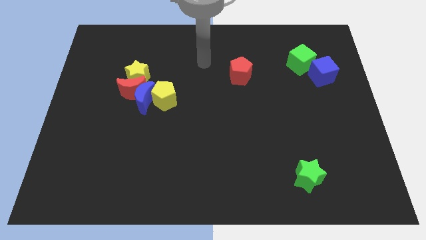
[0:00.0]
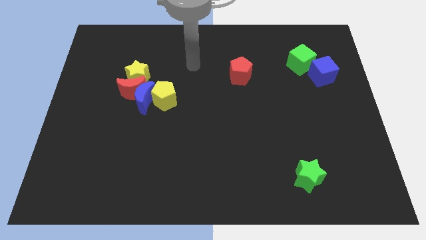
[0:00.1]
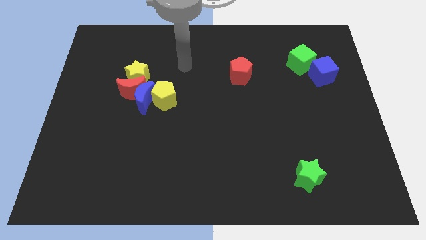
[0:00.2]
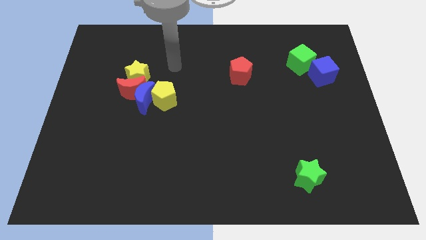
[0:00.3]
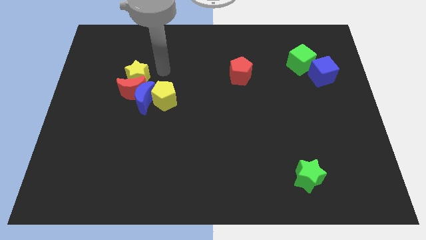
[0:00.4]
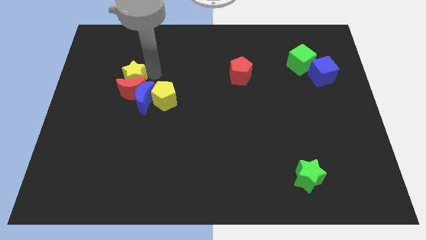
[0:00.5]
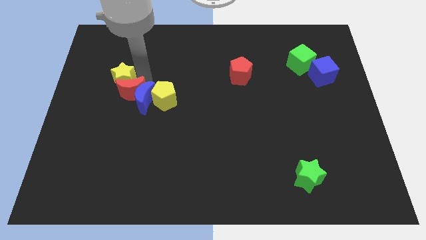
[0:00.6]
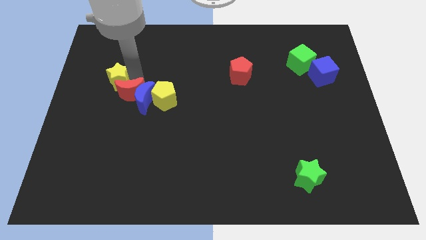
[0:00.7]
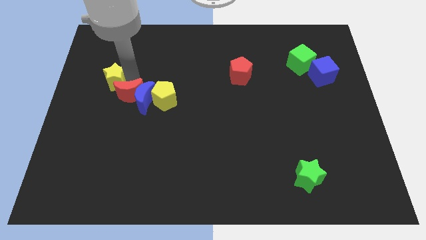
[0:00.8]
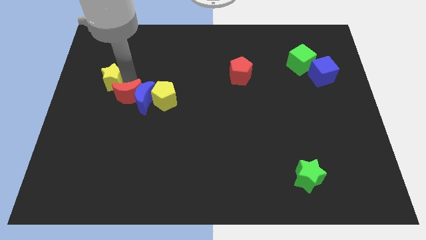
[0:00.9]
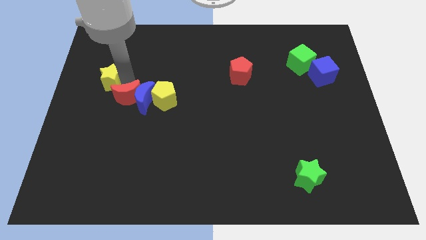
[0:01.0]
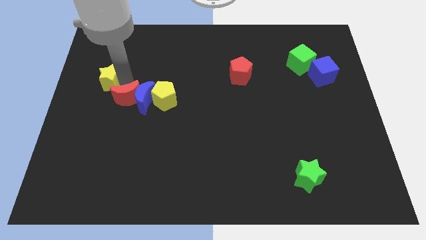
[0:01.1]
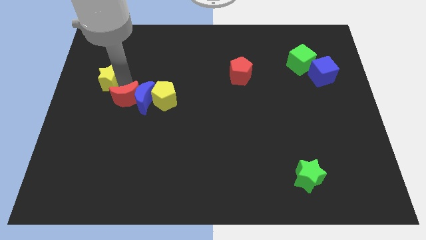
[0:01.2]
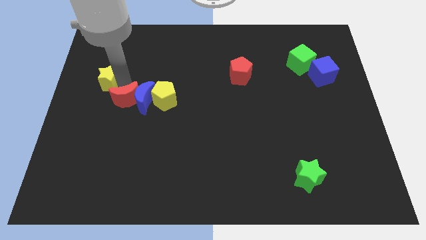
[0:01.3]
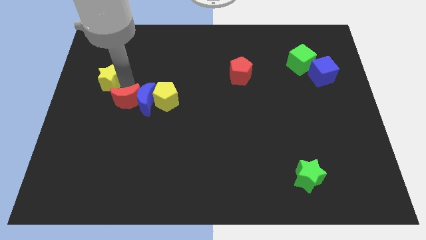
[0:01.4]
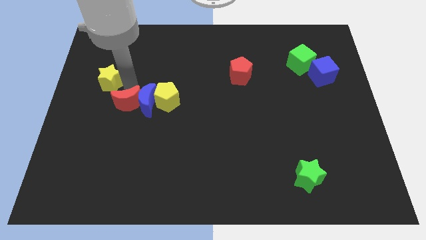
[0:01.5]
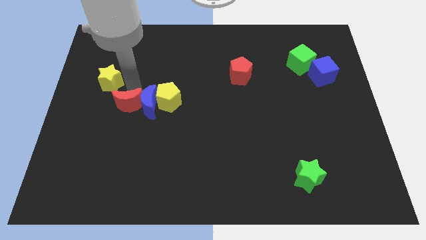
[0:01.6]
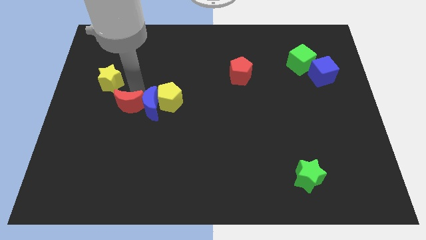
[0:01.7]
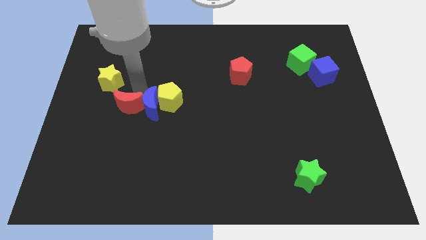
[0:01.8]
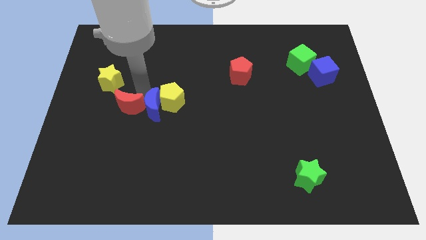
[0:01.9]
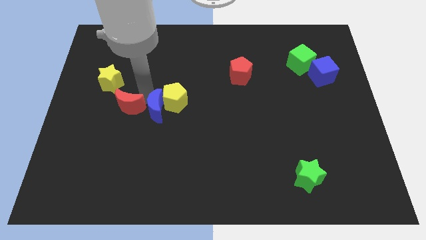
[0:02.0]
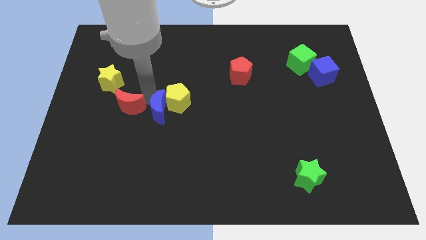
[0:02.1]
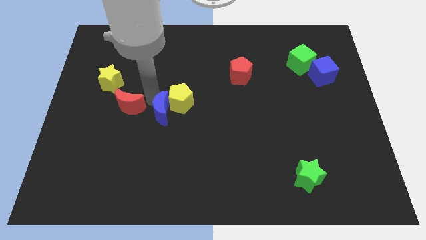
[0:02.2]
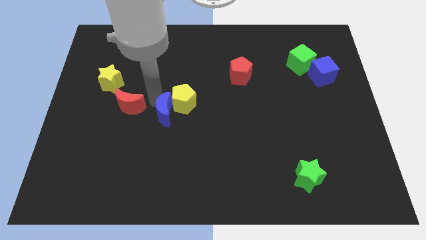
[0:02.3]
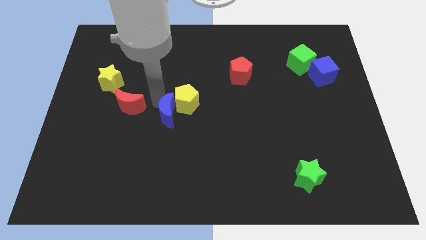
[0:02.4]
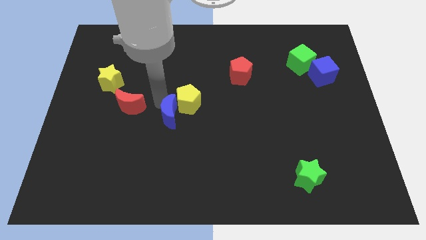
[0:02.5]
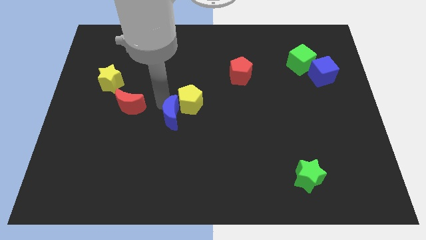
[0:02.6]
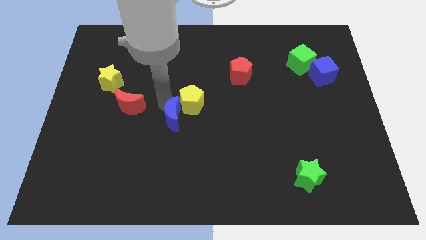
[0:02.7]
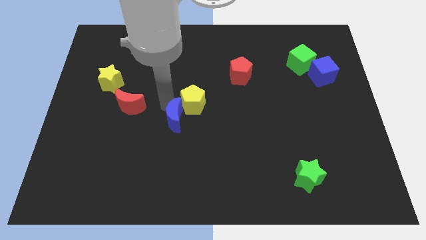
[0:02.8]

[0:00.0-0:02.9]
separate the blue moon from the group

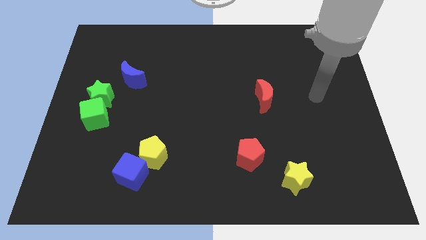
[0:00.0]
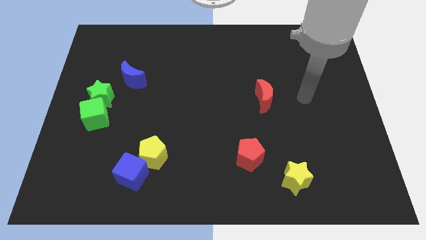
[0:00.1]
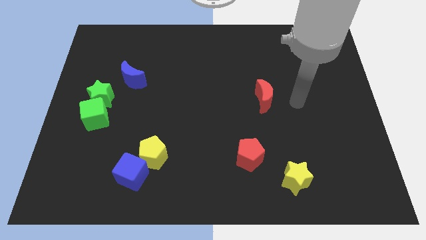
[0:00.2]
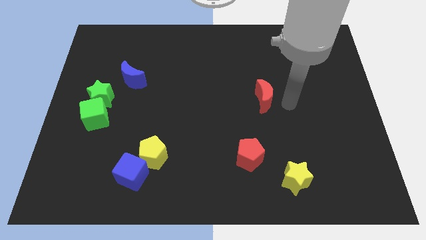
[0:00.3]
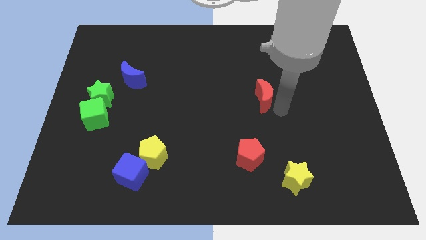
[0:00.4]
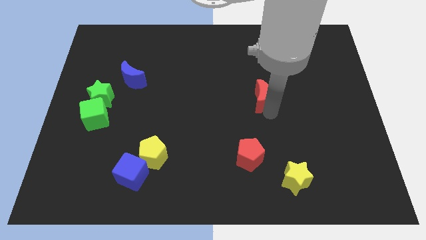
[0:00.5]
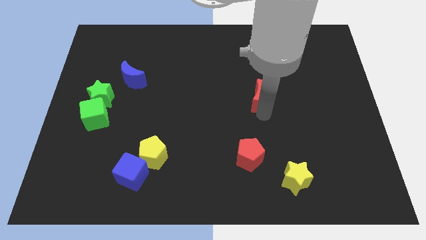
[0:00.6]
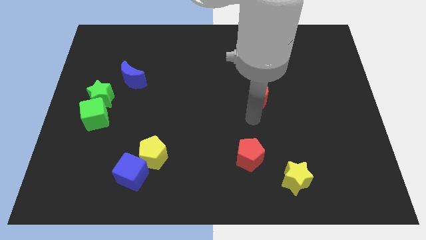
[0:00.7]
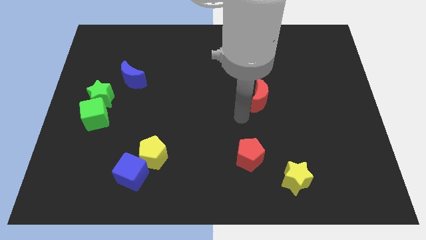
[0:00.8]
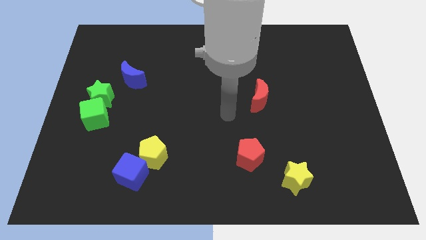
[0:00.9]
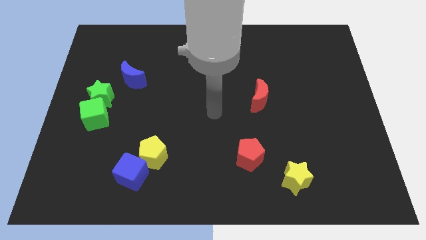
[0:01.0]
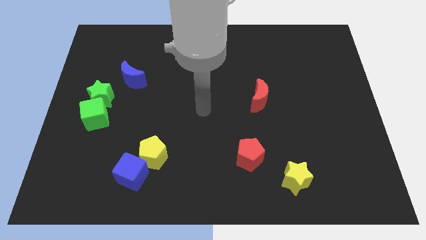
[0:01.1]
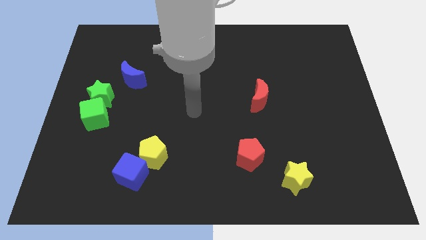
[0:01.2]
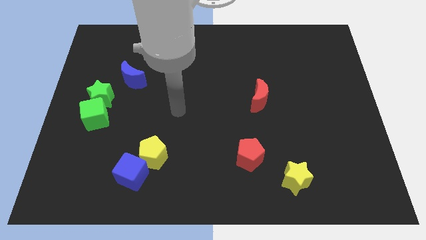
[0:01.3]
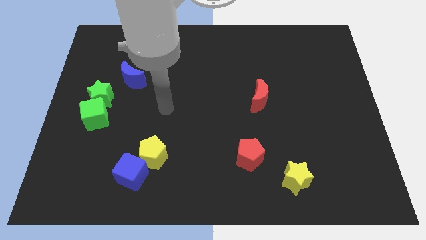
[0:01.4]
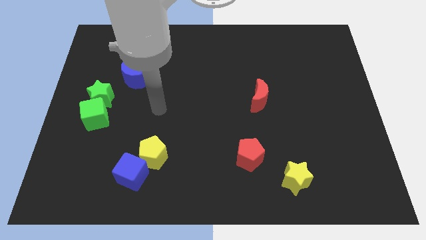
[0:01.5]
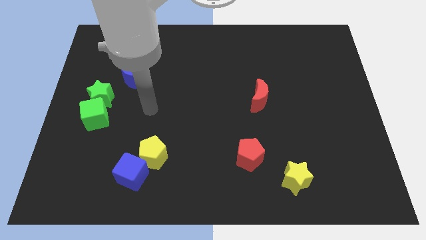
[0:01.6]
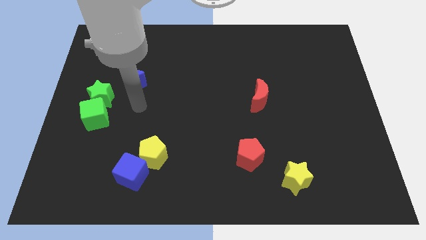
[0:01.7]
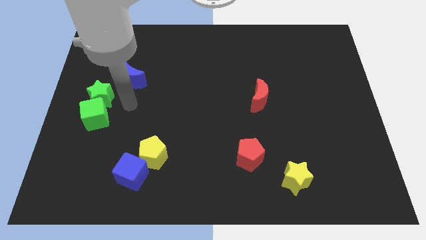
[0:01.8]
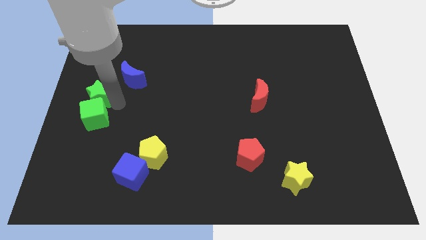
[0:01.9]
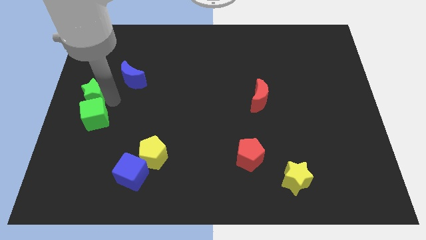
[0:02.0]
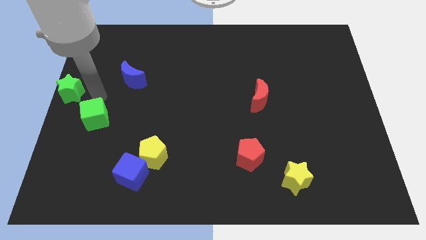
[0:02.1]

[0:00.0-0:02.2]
move the green cube away from the green star

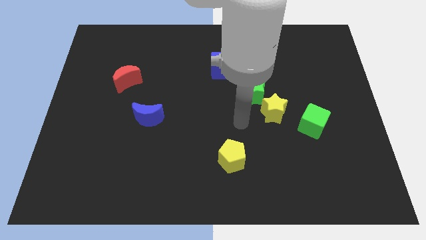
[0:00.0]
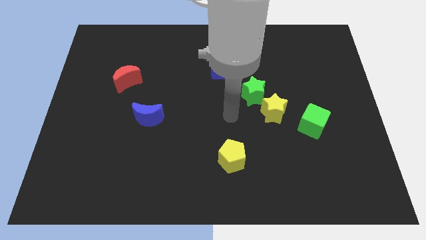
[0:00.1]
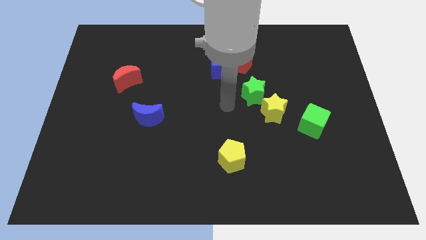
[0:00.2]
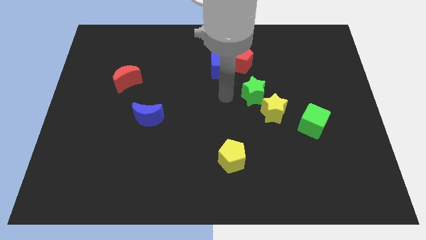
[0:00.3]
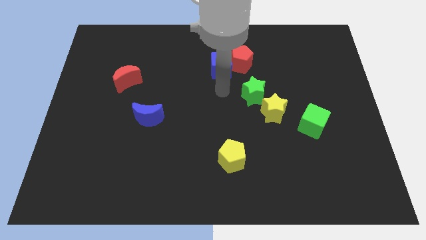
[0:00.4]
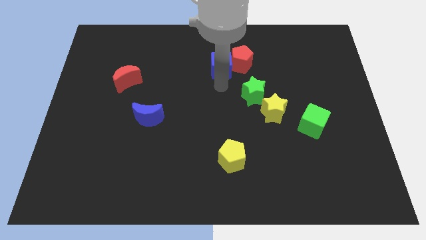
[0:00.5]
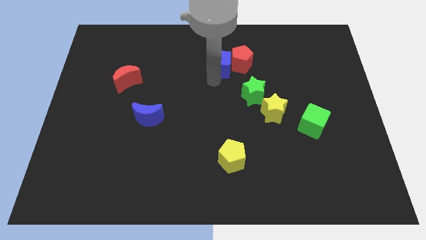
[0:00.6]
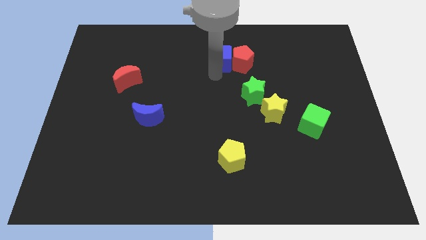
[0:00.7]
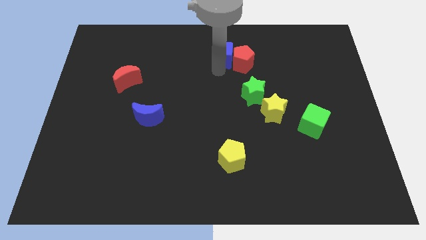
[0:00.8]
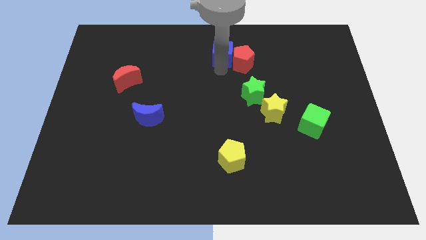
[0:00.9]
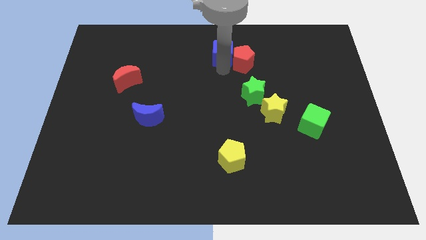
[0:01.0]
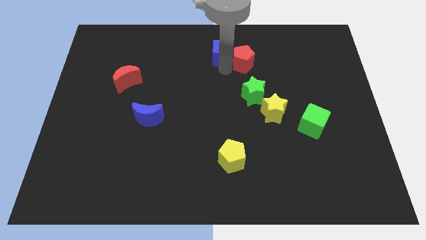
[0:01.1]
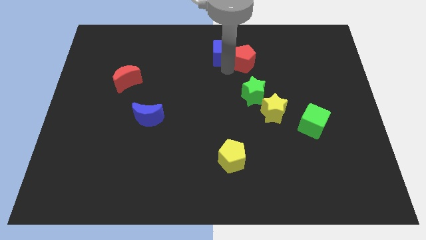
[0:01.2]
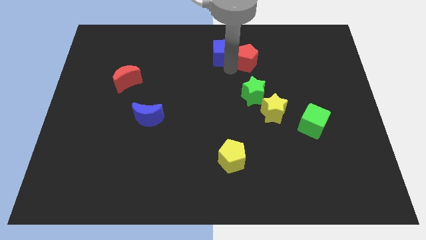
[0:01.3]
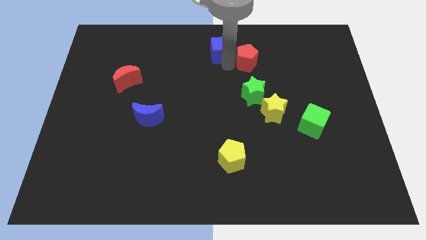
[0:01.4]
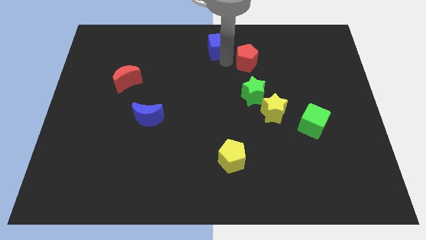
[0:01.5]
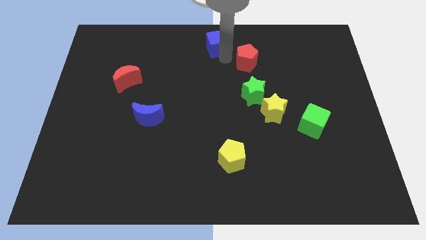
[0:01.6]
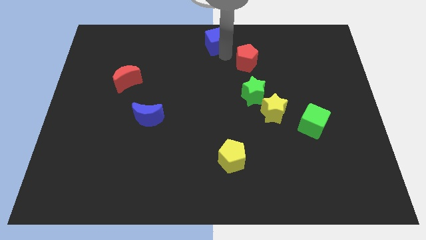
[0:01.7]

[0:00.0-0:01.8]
move the red pentagon away from the blue cube

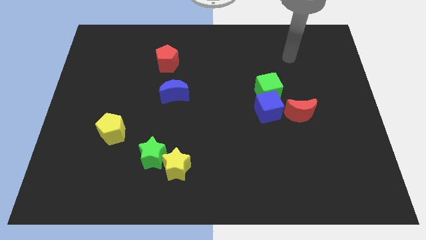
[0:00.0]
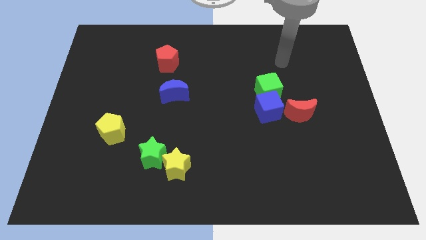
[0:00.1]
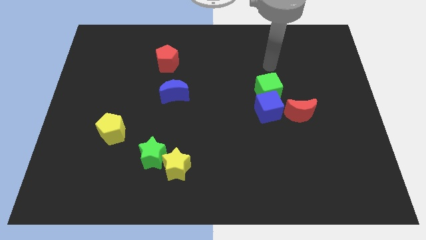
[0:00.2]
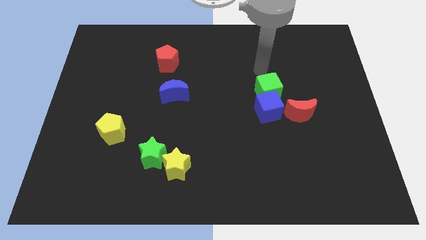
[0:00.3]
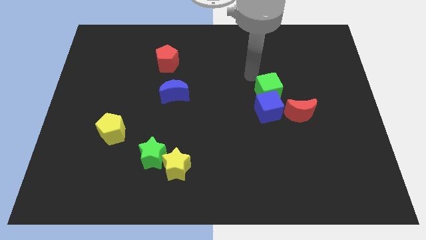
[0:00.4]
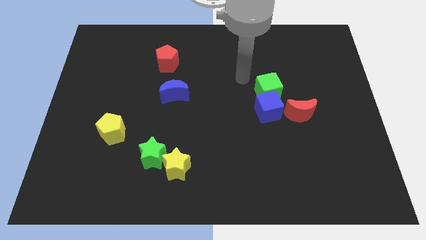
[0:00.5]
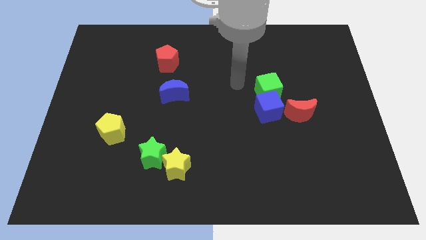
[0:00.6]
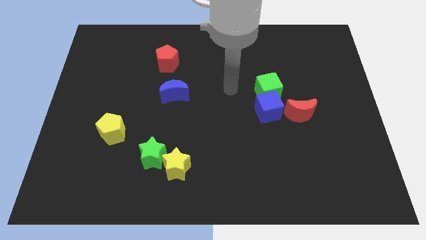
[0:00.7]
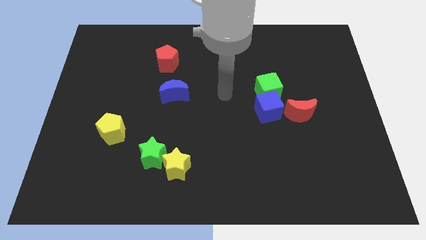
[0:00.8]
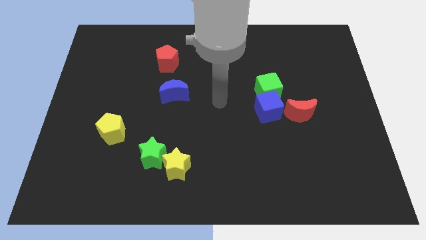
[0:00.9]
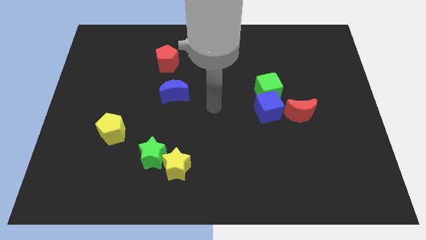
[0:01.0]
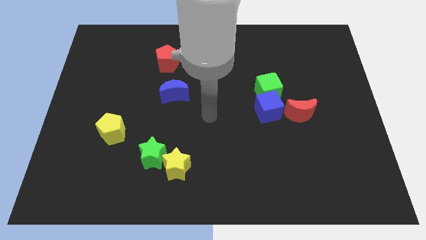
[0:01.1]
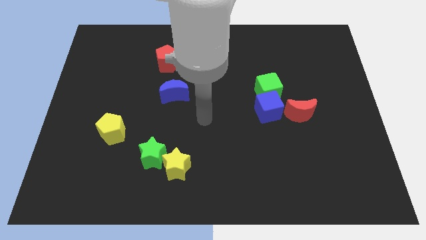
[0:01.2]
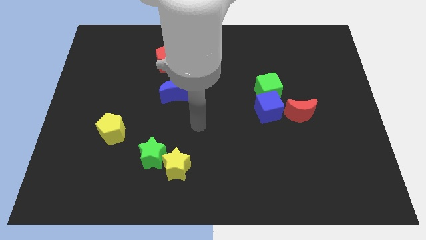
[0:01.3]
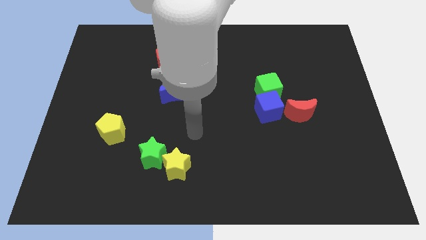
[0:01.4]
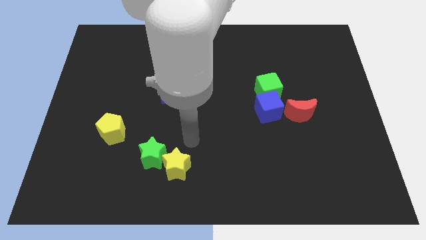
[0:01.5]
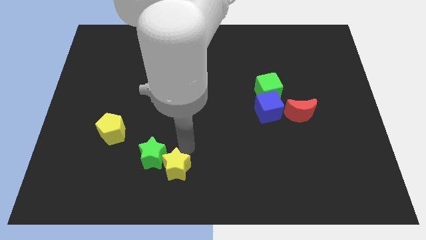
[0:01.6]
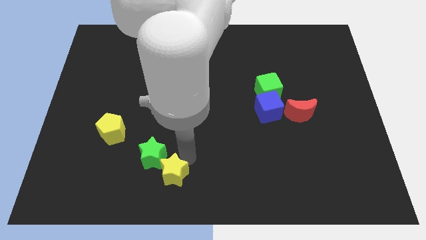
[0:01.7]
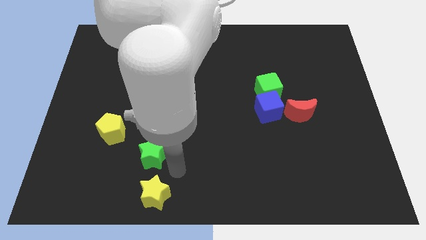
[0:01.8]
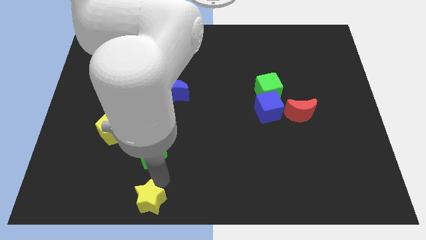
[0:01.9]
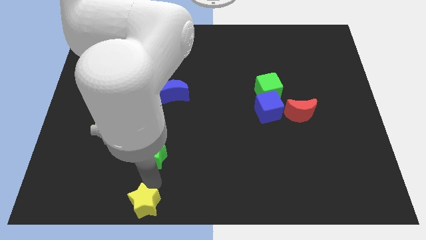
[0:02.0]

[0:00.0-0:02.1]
separate the green star from the yellow star

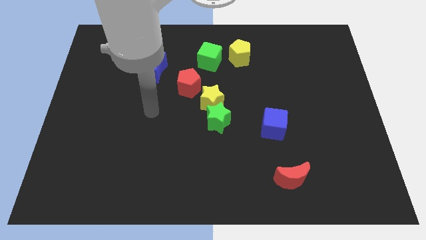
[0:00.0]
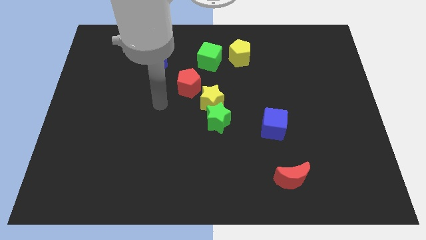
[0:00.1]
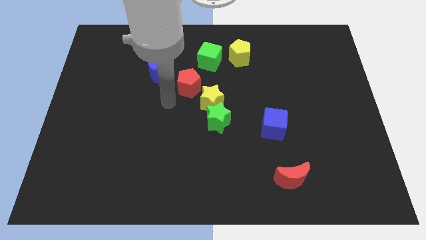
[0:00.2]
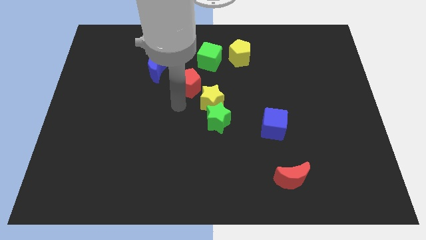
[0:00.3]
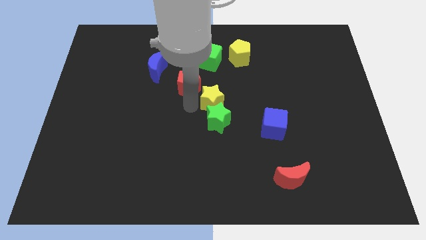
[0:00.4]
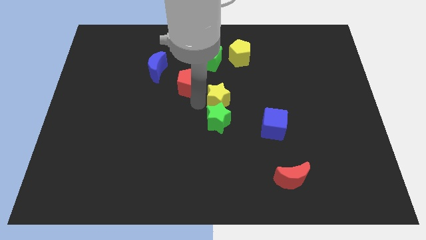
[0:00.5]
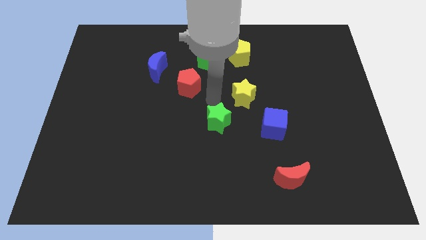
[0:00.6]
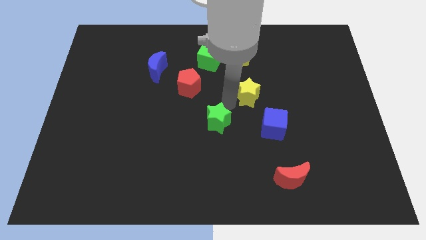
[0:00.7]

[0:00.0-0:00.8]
move the green star away from the yellow star
